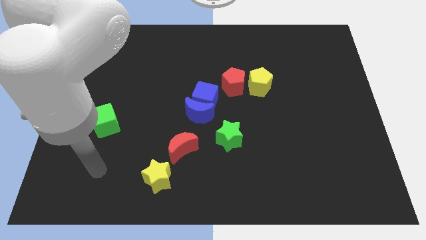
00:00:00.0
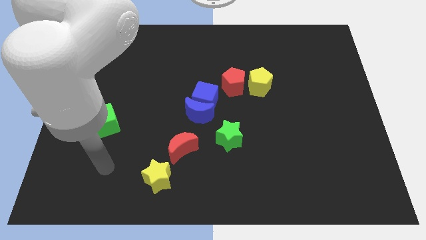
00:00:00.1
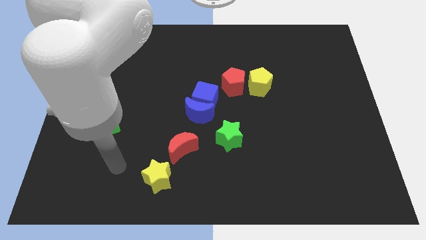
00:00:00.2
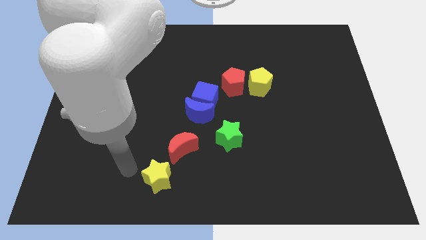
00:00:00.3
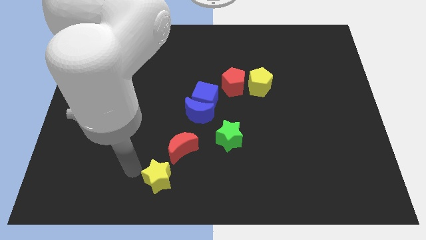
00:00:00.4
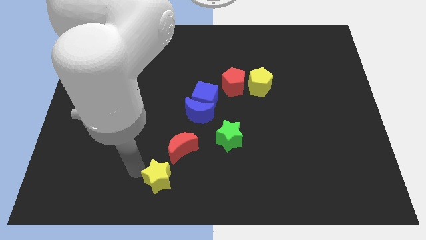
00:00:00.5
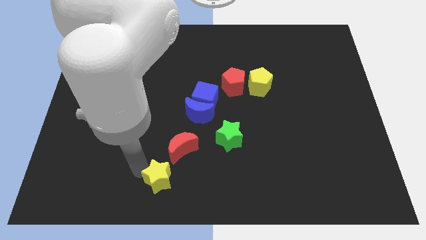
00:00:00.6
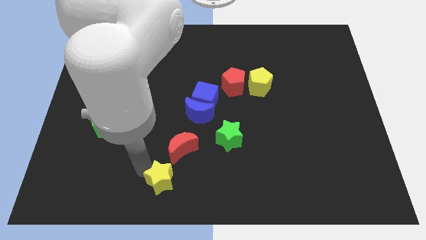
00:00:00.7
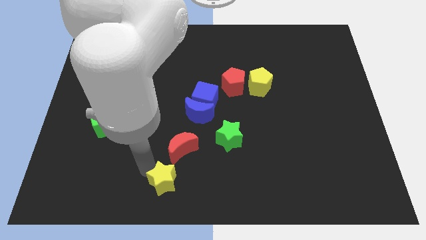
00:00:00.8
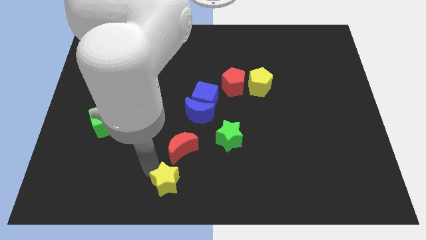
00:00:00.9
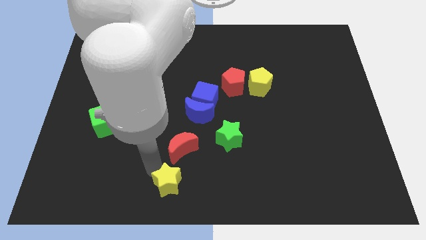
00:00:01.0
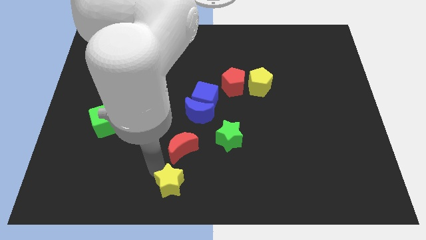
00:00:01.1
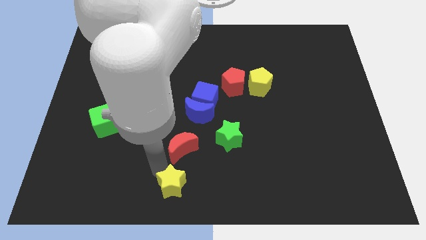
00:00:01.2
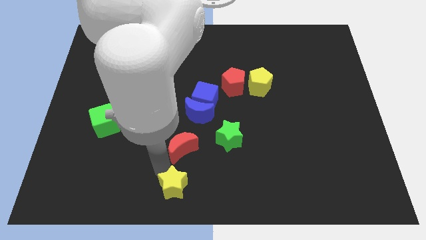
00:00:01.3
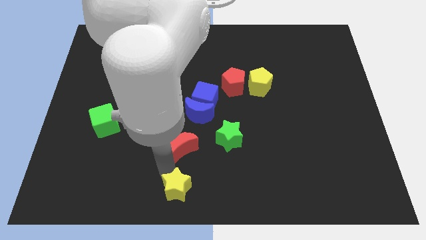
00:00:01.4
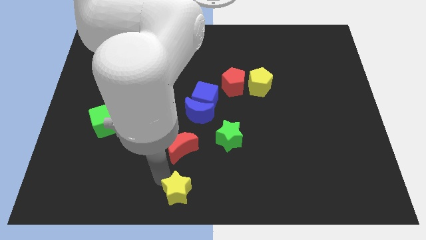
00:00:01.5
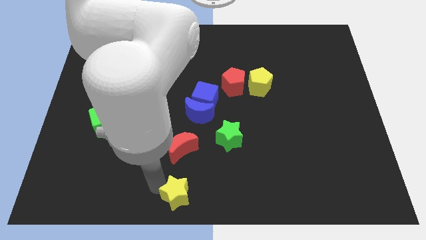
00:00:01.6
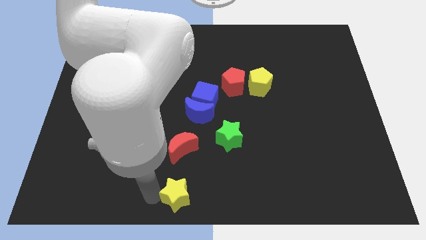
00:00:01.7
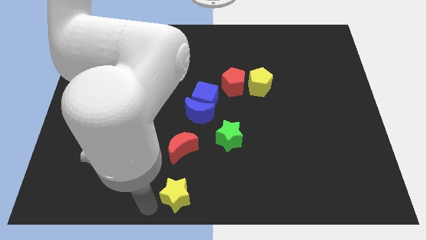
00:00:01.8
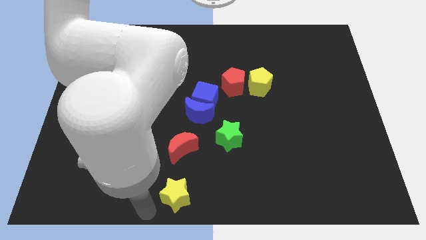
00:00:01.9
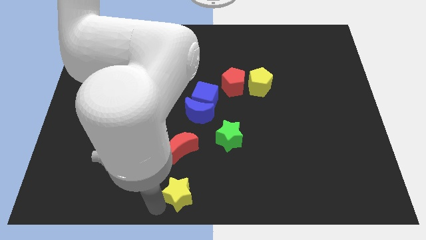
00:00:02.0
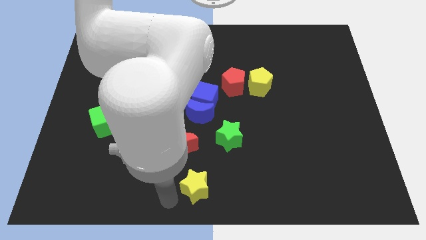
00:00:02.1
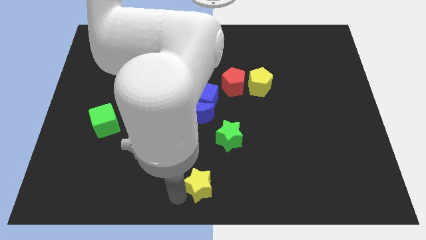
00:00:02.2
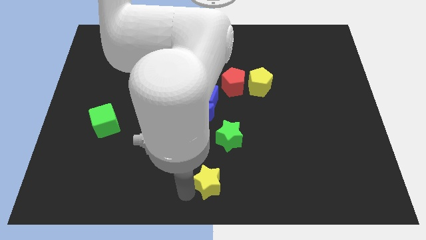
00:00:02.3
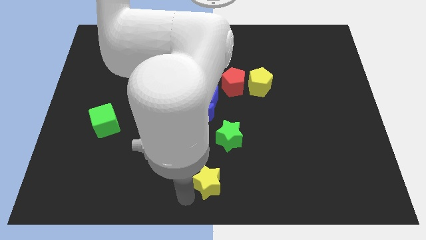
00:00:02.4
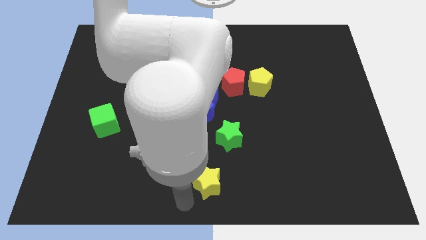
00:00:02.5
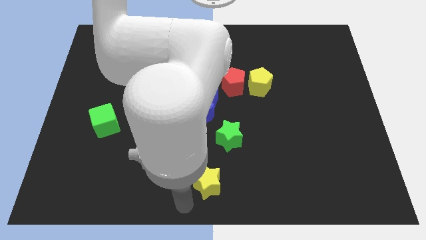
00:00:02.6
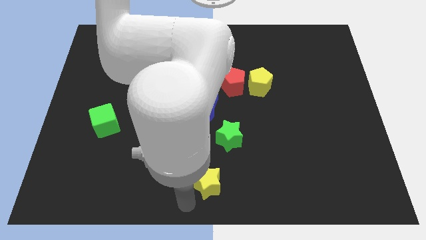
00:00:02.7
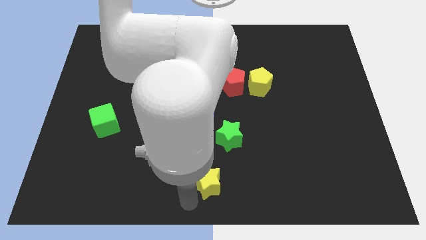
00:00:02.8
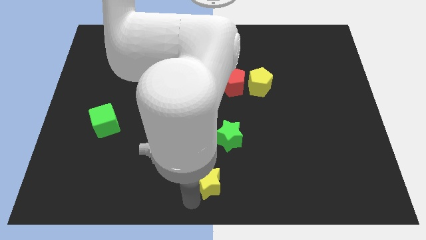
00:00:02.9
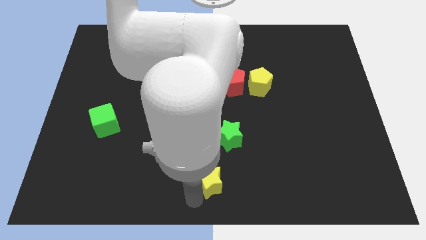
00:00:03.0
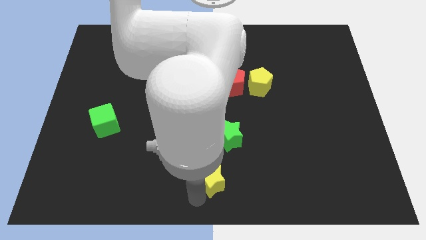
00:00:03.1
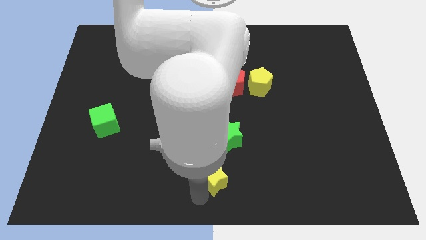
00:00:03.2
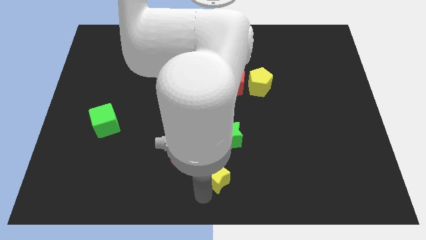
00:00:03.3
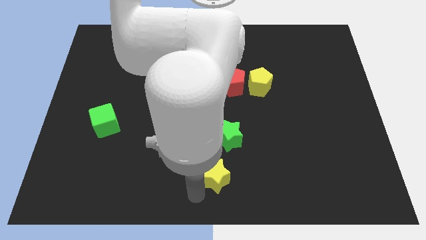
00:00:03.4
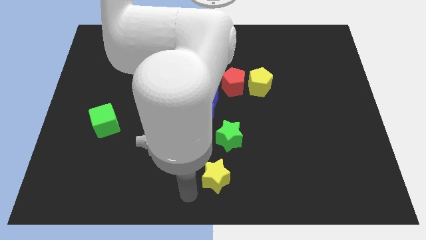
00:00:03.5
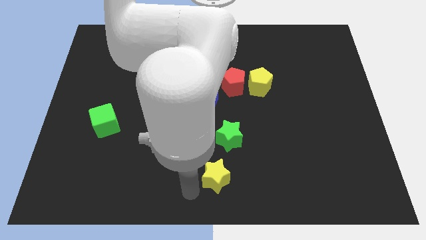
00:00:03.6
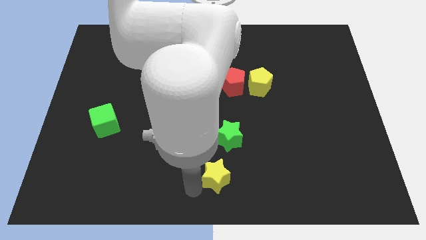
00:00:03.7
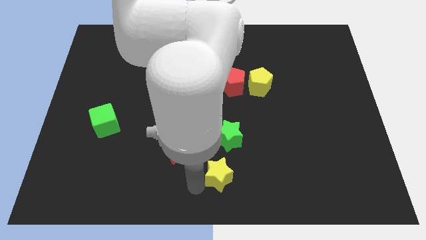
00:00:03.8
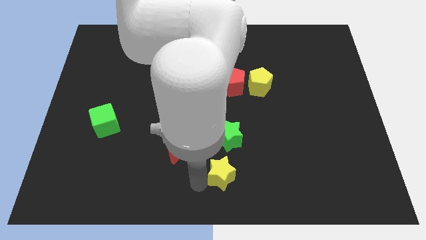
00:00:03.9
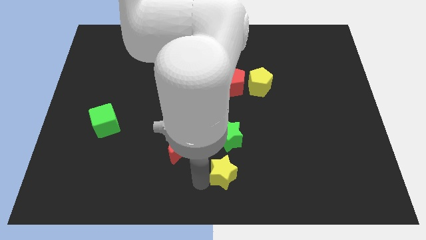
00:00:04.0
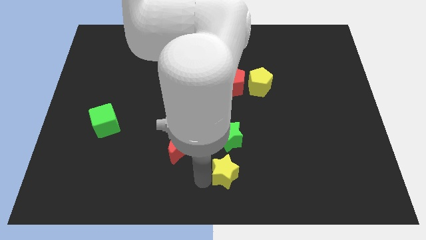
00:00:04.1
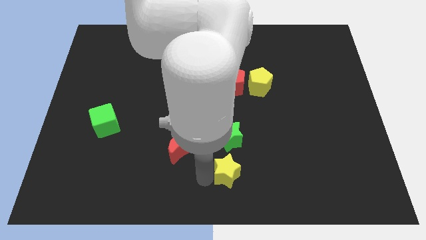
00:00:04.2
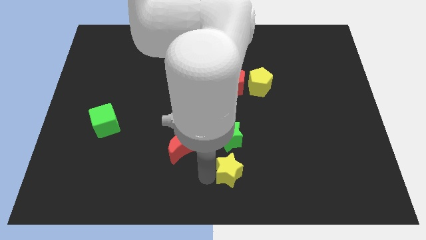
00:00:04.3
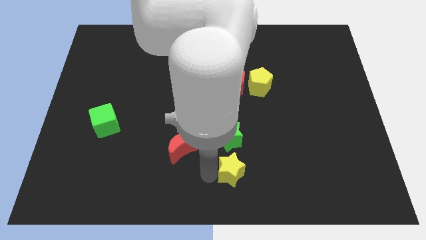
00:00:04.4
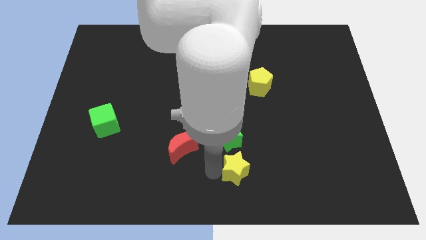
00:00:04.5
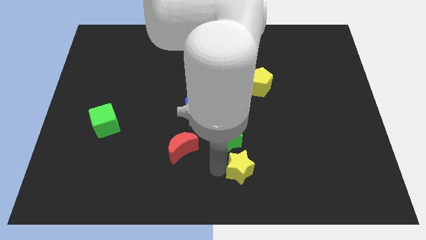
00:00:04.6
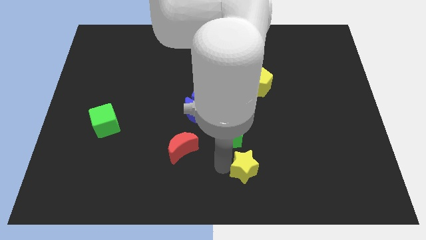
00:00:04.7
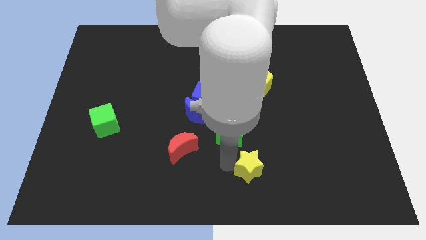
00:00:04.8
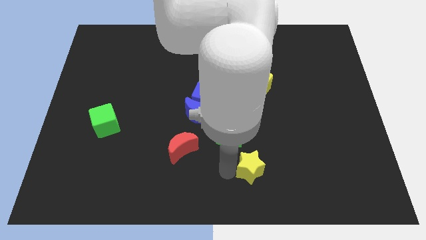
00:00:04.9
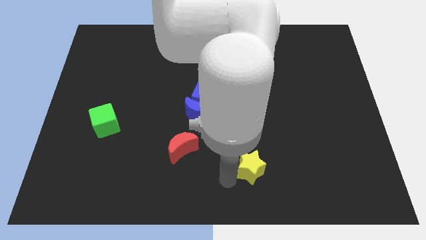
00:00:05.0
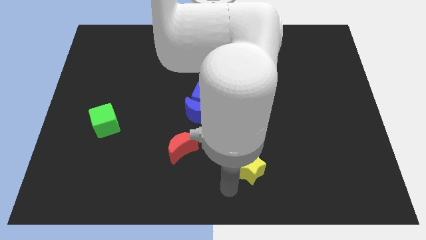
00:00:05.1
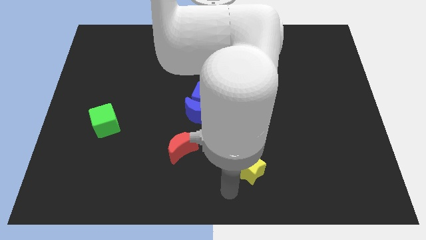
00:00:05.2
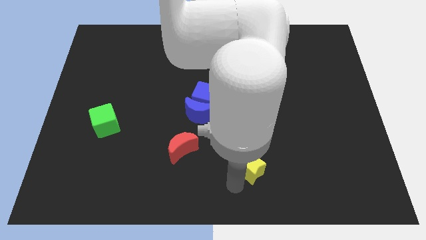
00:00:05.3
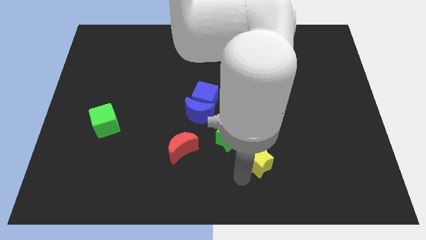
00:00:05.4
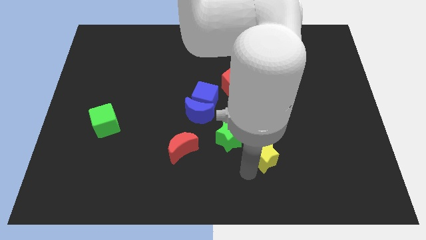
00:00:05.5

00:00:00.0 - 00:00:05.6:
slide the yellow star to the right side of the green star

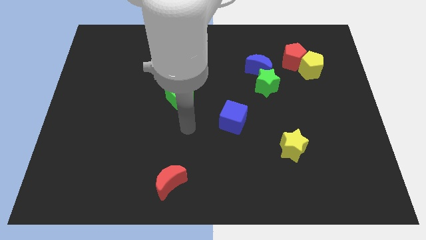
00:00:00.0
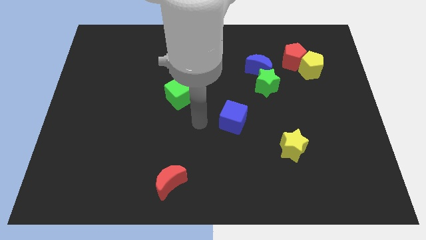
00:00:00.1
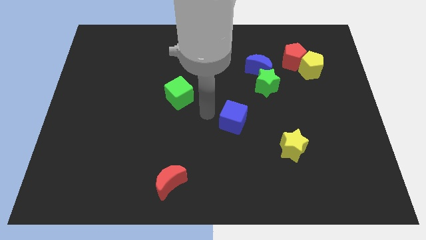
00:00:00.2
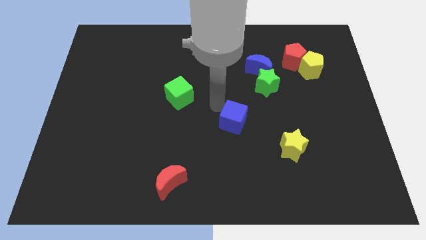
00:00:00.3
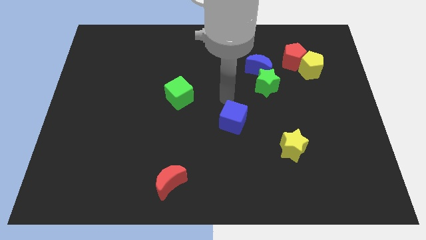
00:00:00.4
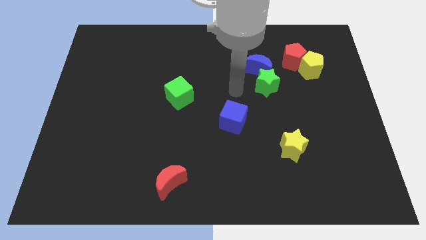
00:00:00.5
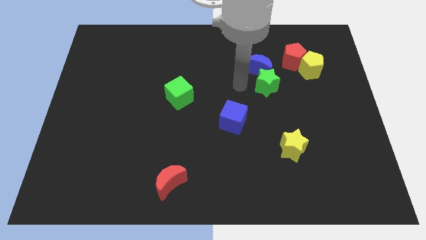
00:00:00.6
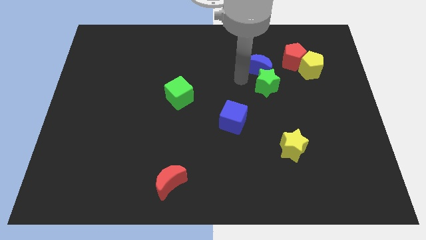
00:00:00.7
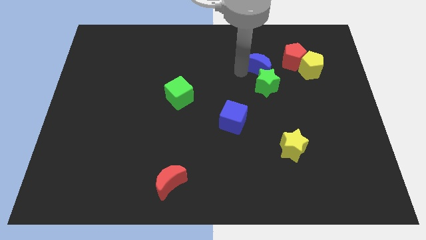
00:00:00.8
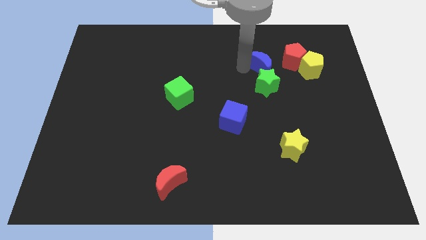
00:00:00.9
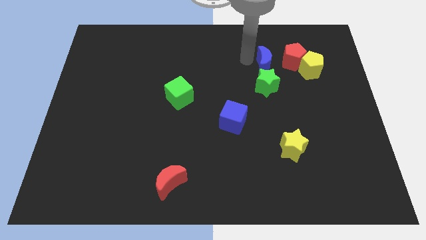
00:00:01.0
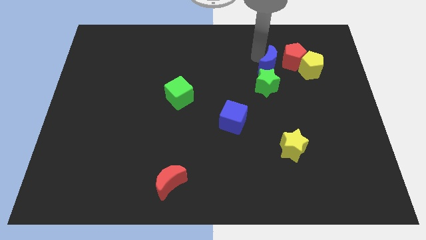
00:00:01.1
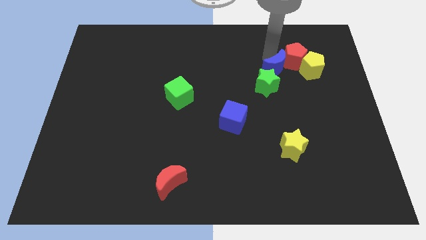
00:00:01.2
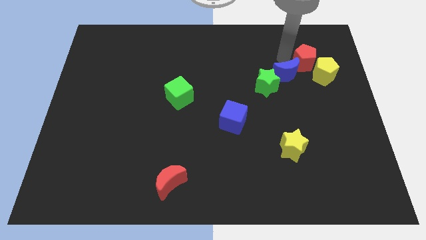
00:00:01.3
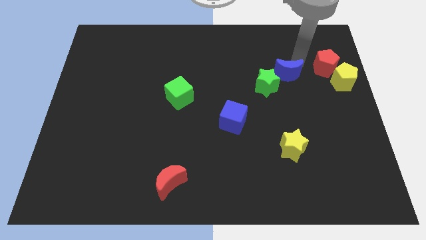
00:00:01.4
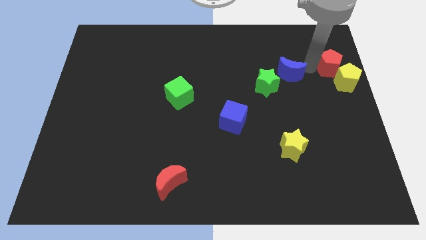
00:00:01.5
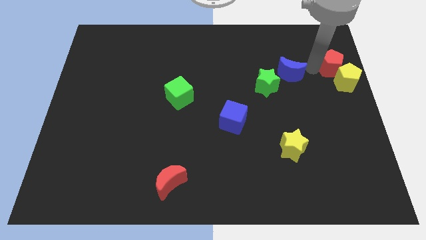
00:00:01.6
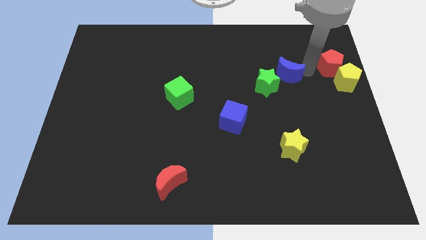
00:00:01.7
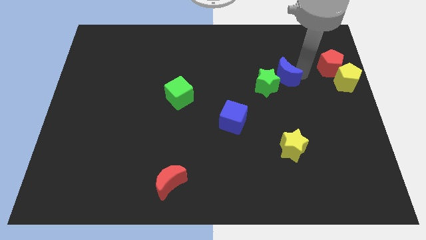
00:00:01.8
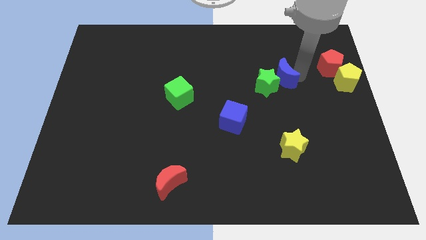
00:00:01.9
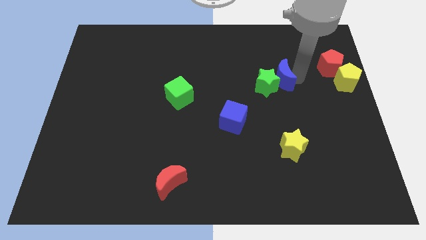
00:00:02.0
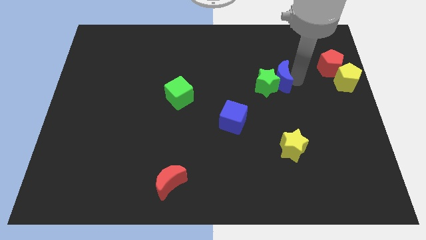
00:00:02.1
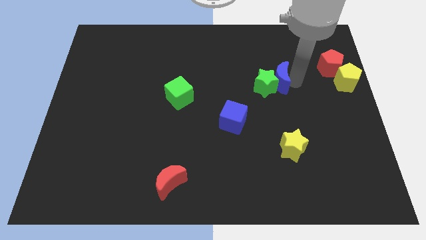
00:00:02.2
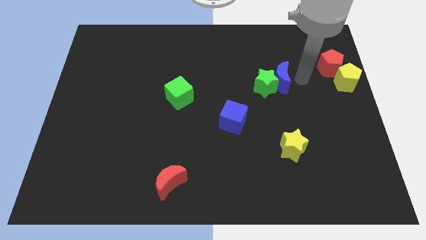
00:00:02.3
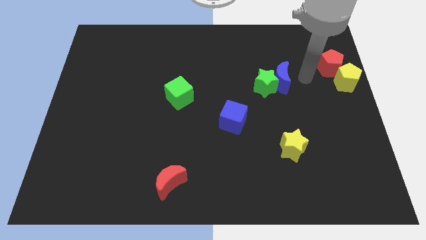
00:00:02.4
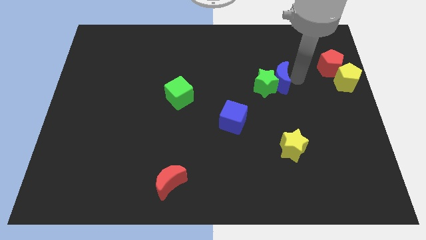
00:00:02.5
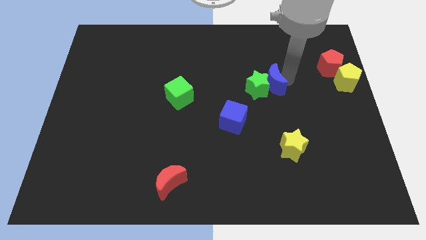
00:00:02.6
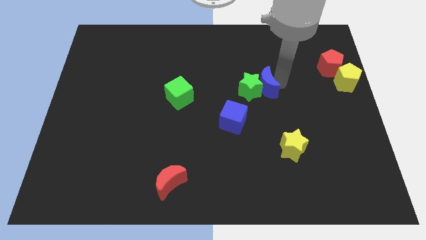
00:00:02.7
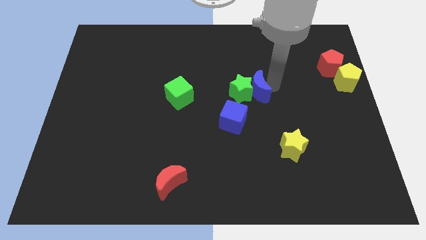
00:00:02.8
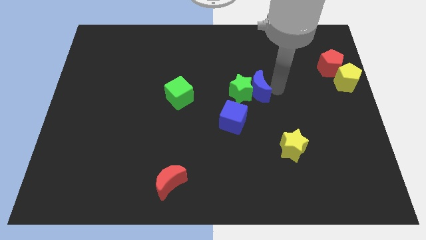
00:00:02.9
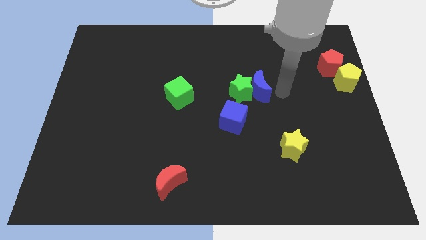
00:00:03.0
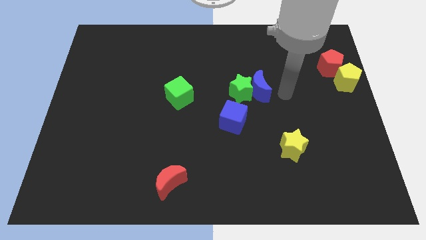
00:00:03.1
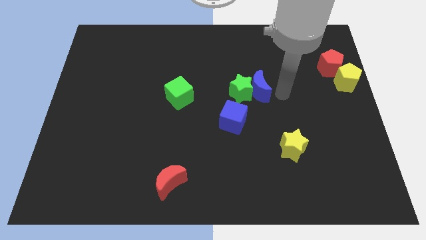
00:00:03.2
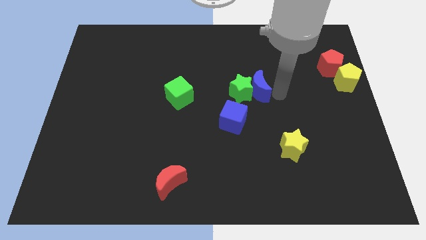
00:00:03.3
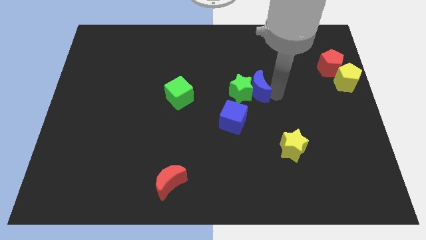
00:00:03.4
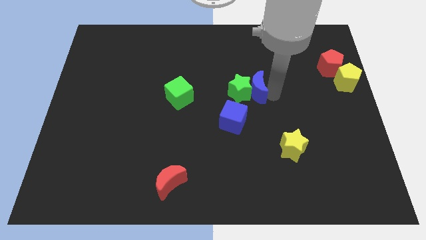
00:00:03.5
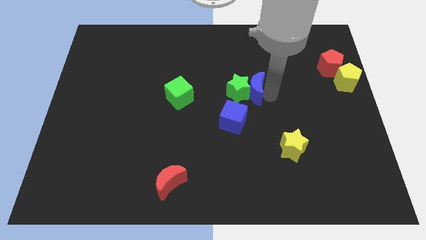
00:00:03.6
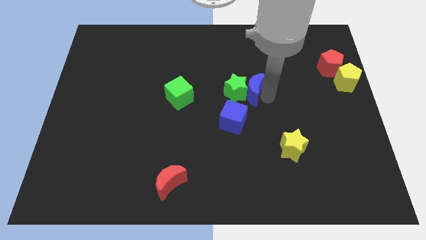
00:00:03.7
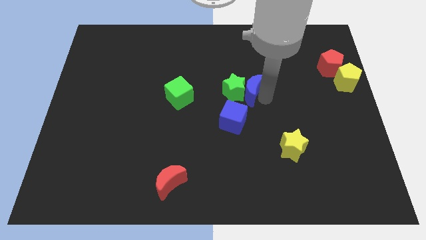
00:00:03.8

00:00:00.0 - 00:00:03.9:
push the blue moon to the top of the blue cube
